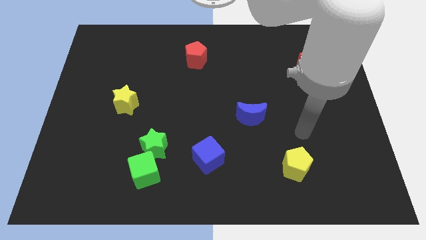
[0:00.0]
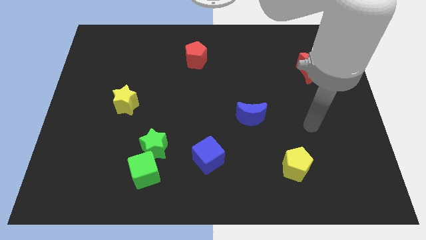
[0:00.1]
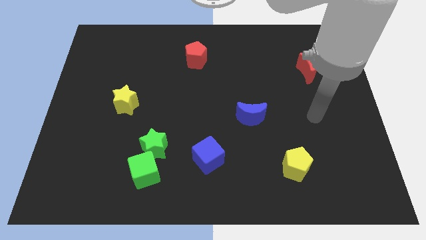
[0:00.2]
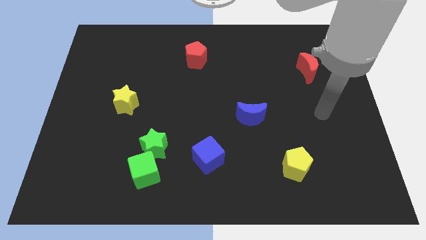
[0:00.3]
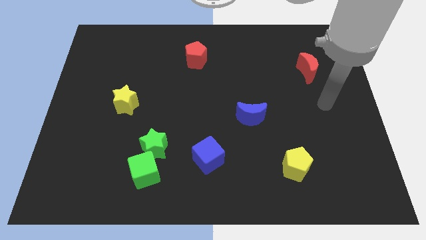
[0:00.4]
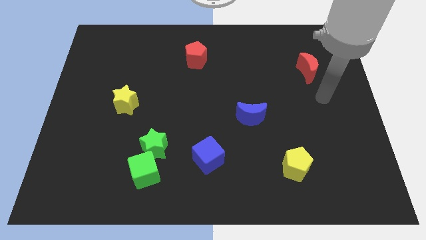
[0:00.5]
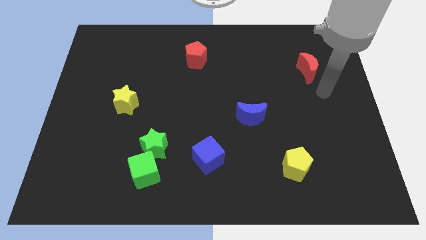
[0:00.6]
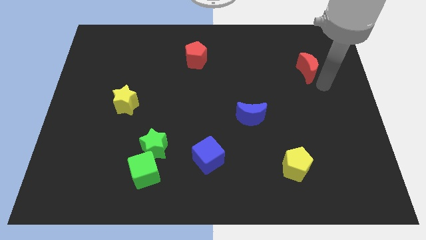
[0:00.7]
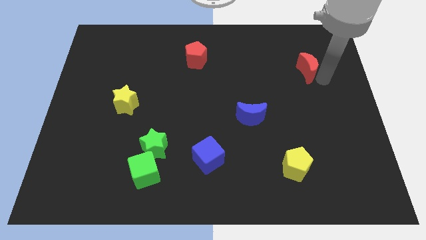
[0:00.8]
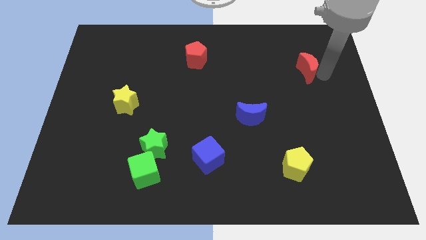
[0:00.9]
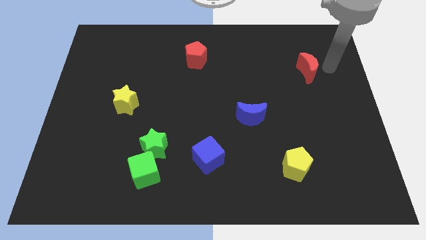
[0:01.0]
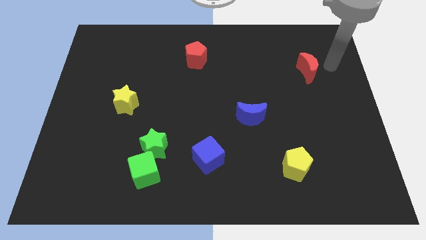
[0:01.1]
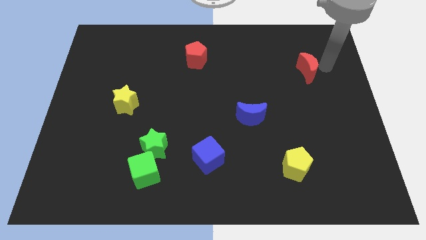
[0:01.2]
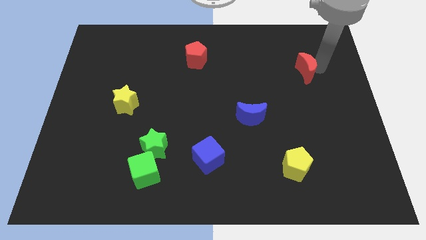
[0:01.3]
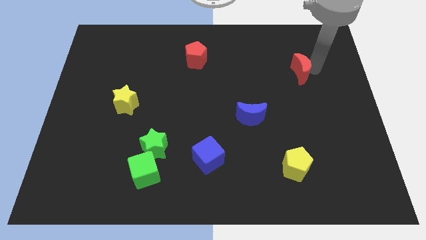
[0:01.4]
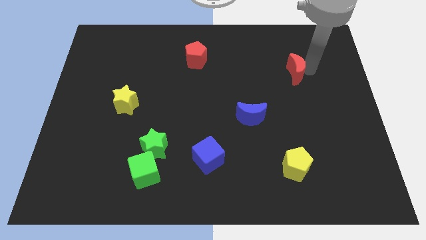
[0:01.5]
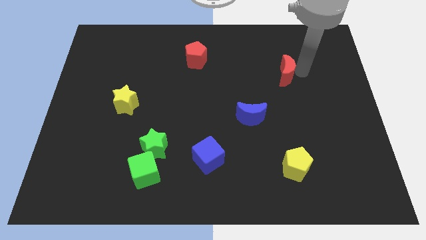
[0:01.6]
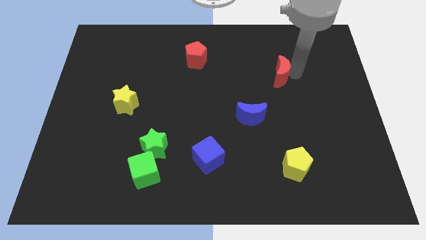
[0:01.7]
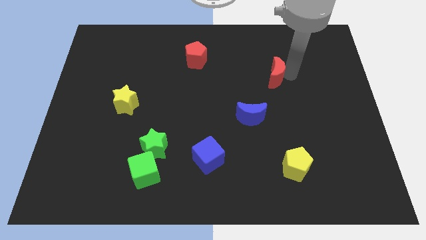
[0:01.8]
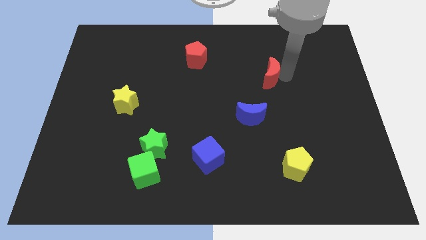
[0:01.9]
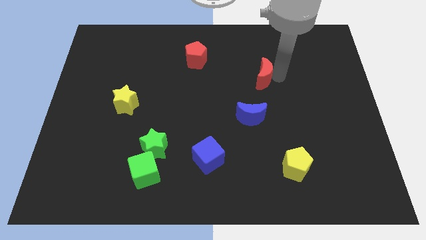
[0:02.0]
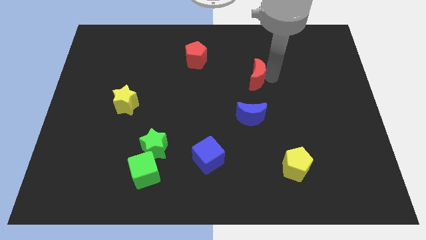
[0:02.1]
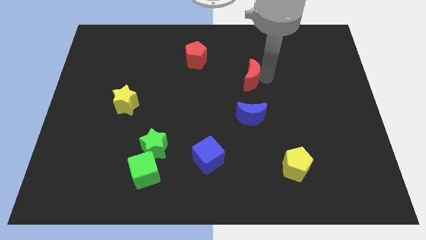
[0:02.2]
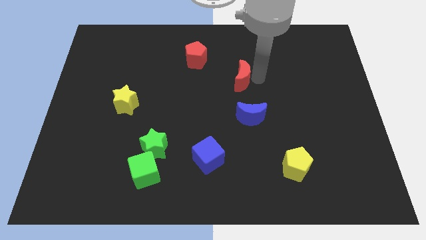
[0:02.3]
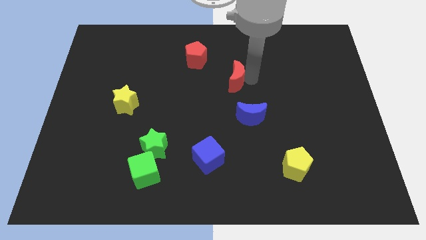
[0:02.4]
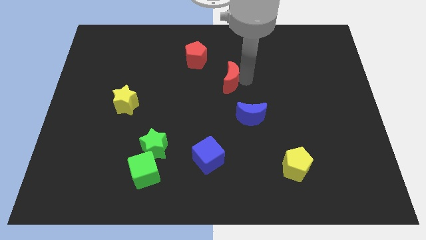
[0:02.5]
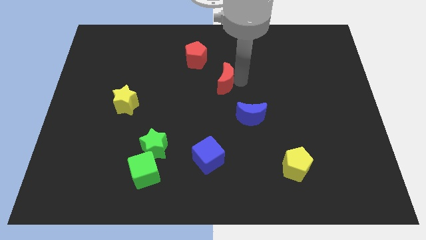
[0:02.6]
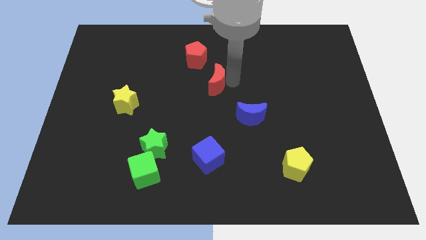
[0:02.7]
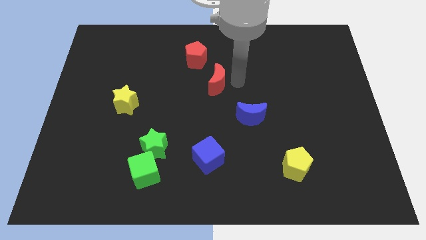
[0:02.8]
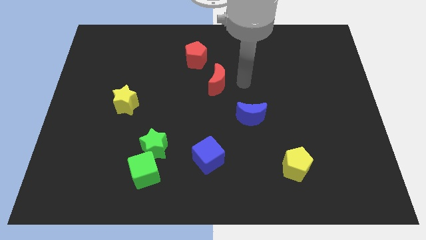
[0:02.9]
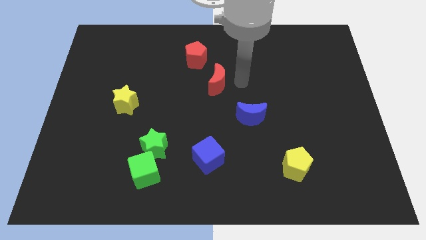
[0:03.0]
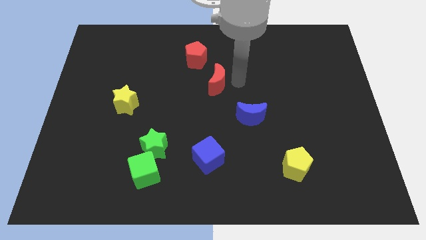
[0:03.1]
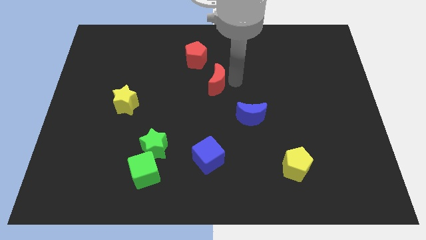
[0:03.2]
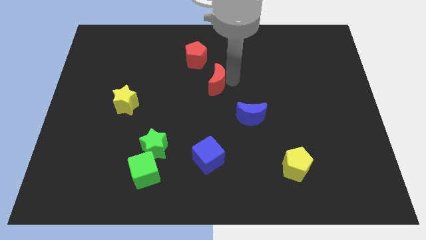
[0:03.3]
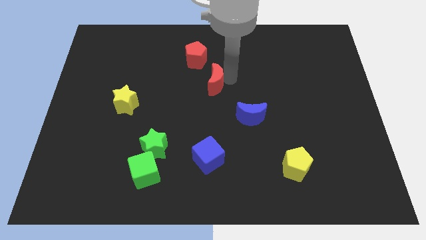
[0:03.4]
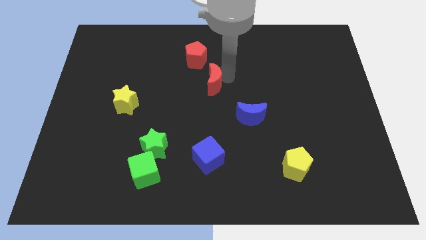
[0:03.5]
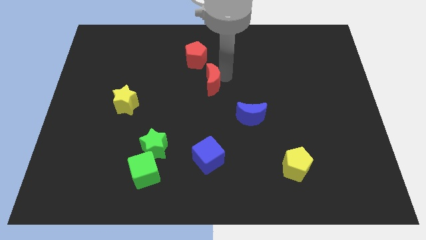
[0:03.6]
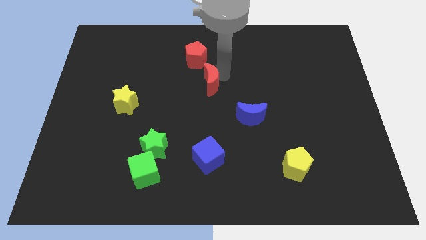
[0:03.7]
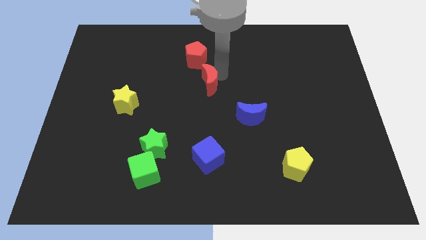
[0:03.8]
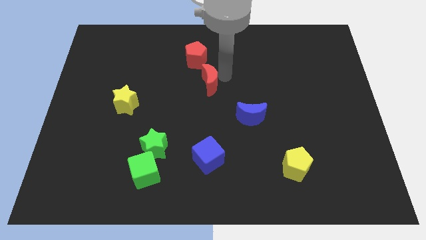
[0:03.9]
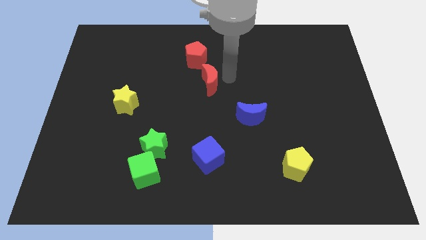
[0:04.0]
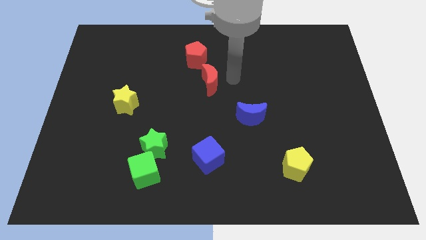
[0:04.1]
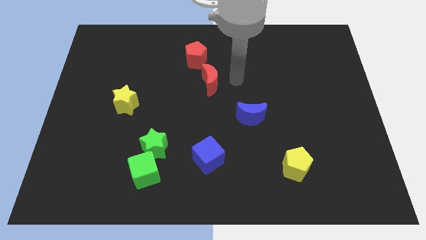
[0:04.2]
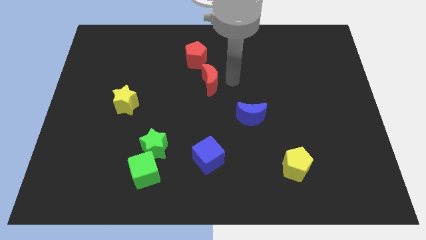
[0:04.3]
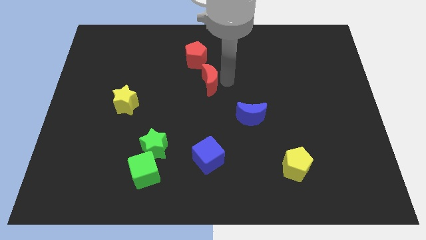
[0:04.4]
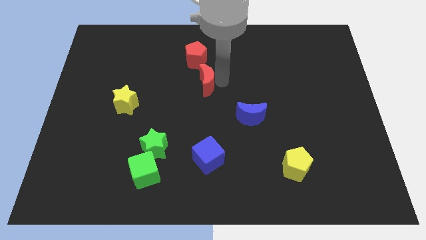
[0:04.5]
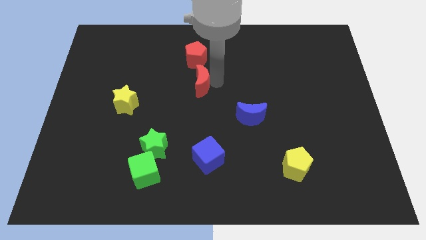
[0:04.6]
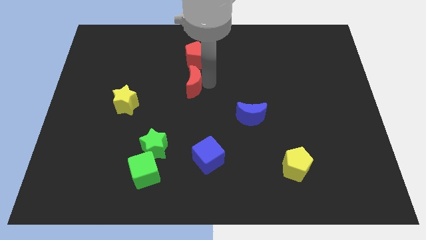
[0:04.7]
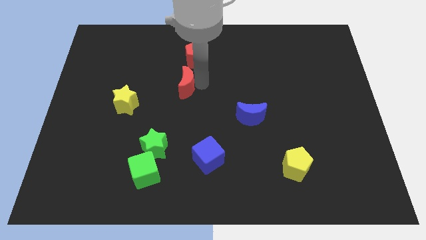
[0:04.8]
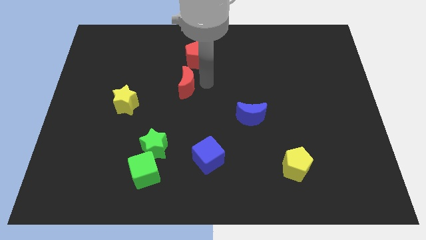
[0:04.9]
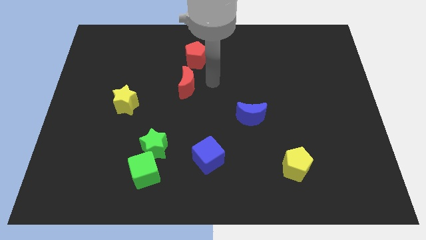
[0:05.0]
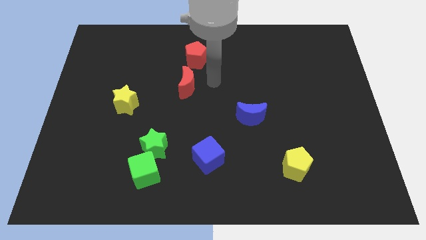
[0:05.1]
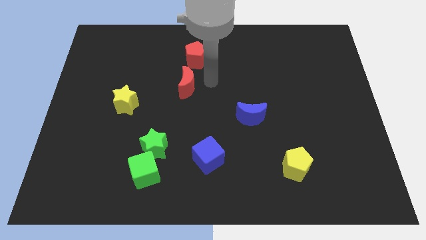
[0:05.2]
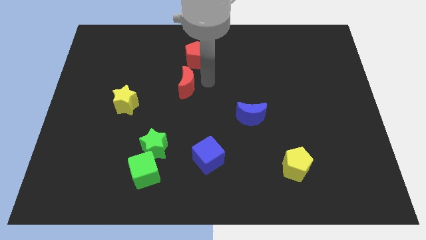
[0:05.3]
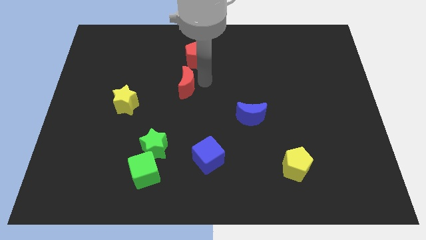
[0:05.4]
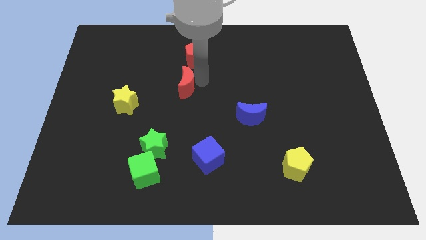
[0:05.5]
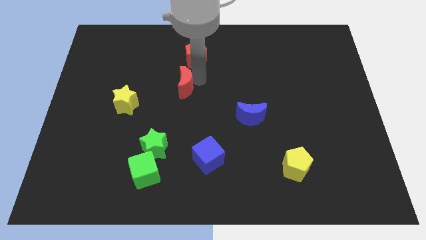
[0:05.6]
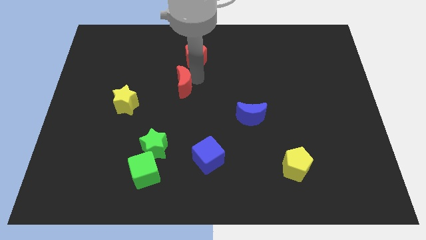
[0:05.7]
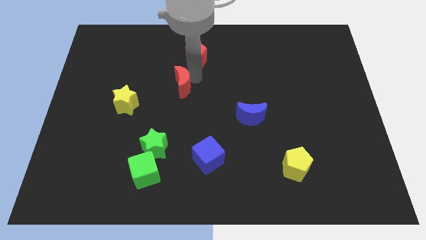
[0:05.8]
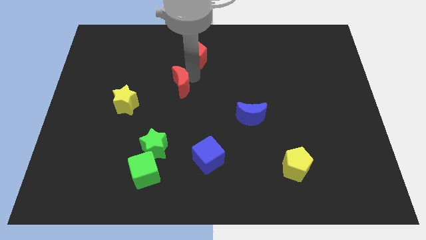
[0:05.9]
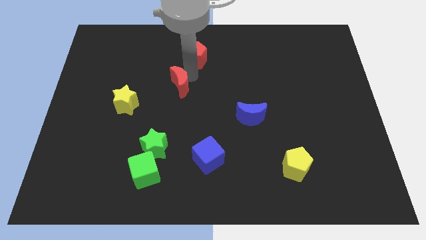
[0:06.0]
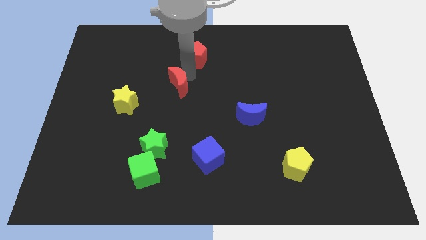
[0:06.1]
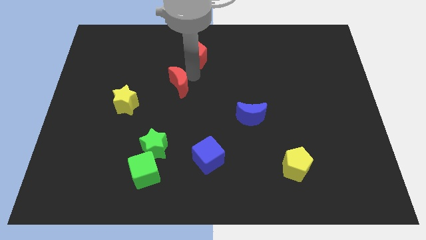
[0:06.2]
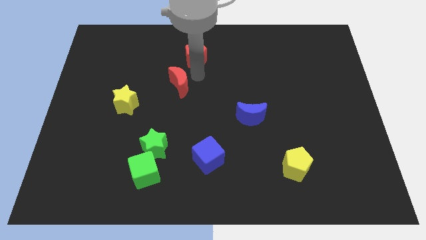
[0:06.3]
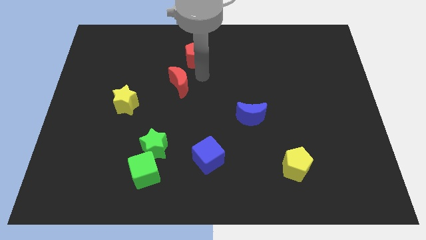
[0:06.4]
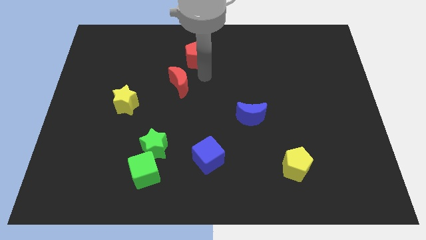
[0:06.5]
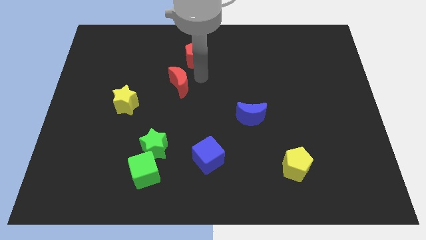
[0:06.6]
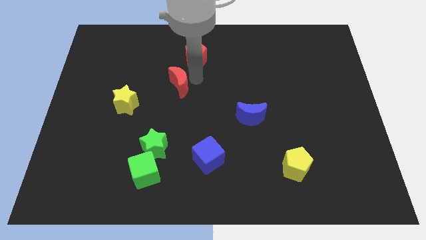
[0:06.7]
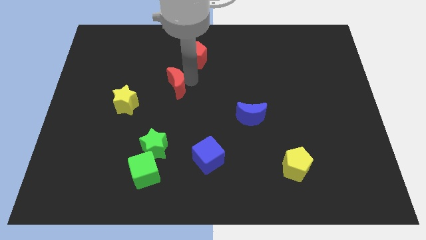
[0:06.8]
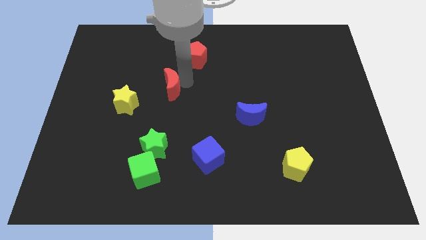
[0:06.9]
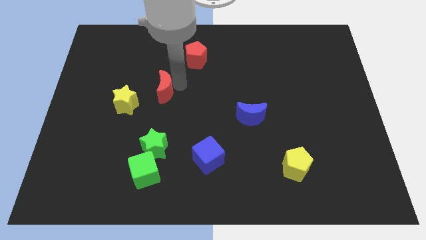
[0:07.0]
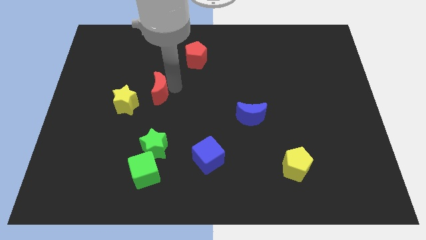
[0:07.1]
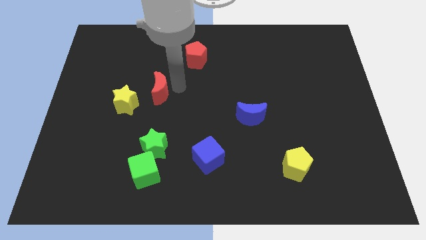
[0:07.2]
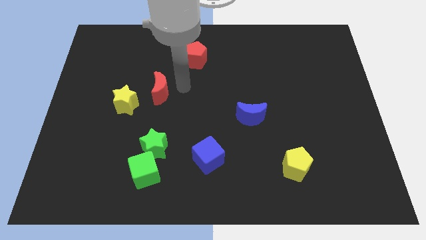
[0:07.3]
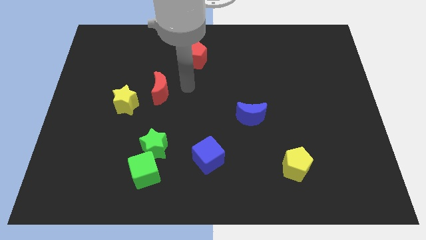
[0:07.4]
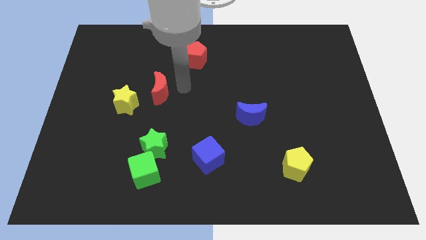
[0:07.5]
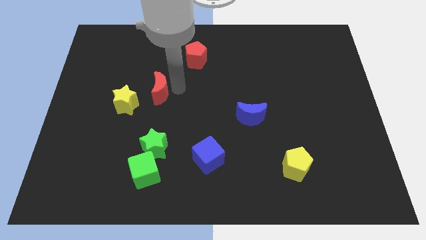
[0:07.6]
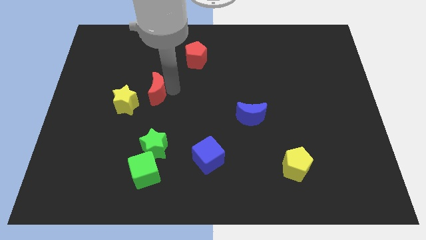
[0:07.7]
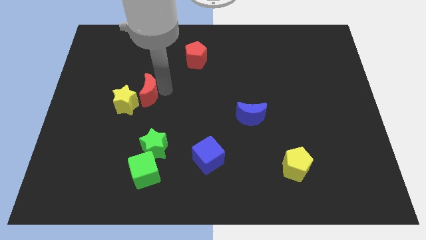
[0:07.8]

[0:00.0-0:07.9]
move the red moon towards the yellow star
